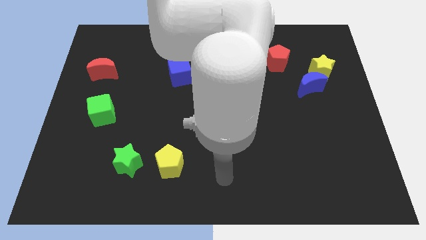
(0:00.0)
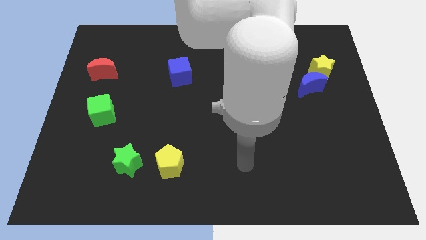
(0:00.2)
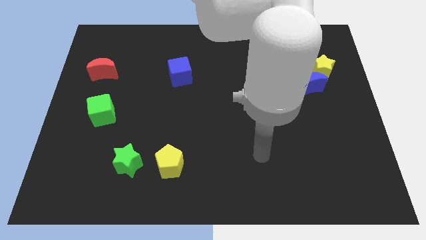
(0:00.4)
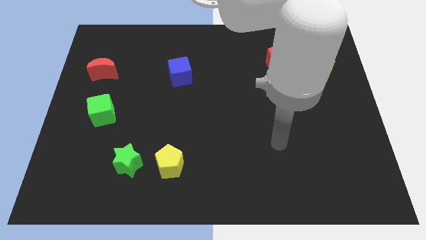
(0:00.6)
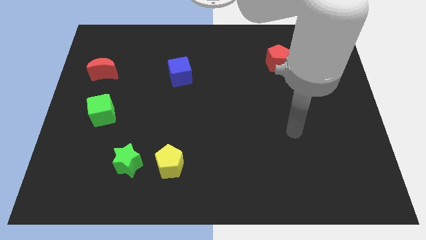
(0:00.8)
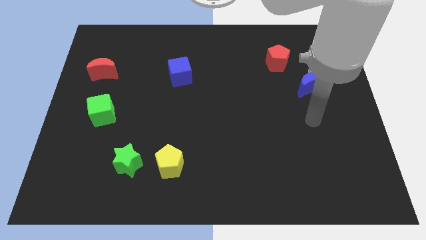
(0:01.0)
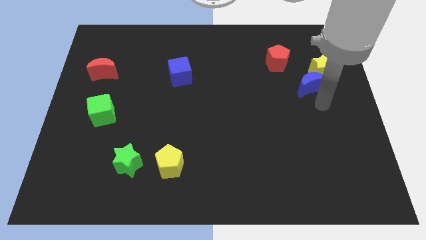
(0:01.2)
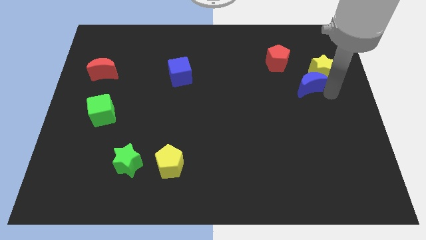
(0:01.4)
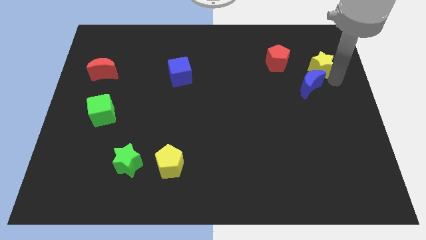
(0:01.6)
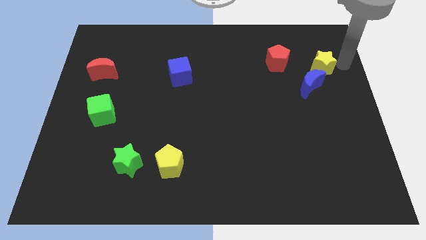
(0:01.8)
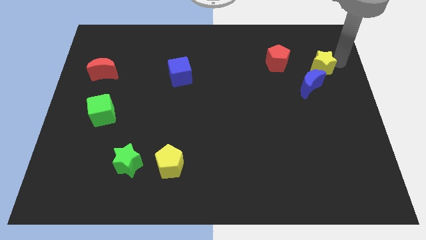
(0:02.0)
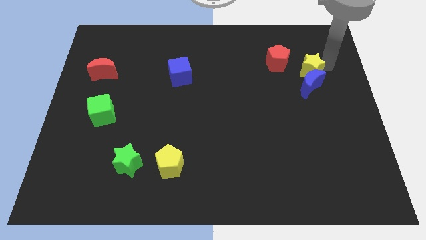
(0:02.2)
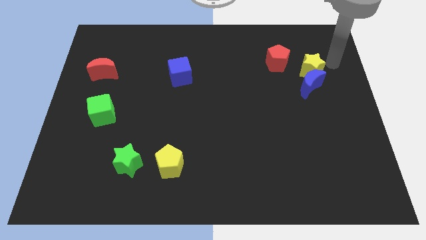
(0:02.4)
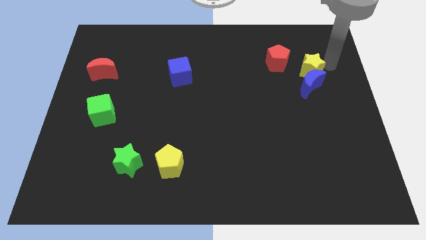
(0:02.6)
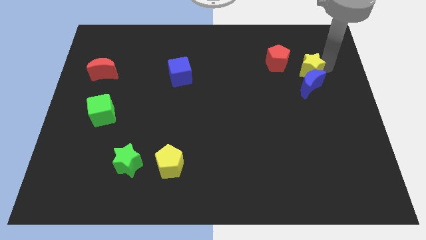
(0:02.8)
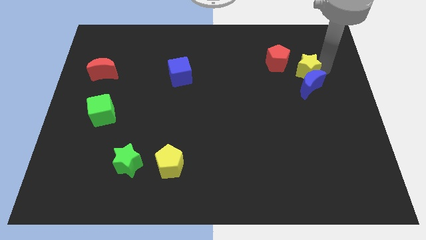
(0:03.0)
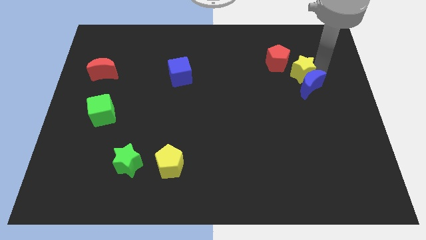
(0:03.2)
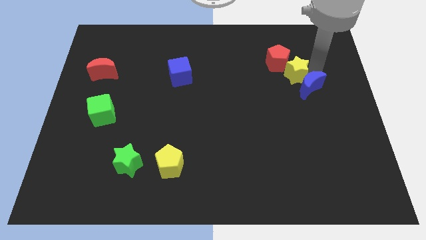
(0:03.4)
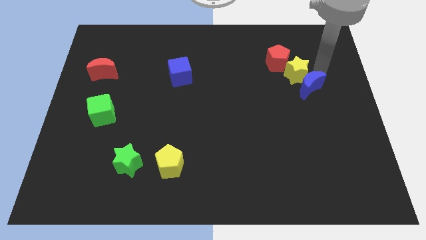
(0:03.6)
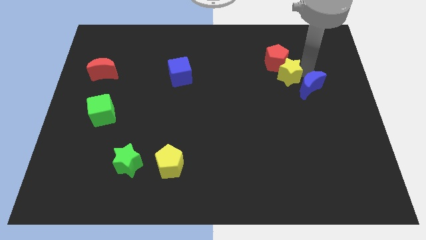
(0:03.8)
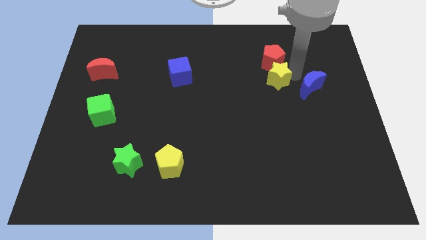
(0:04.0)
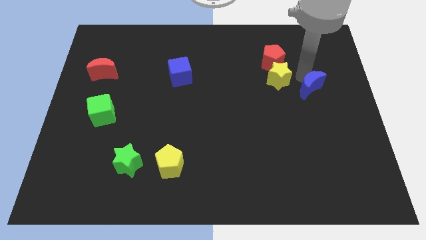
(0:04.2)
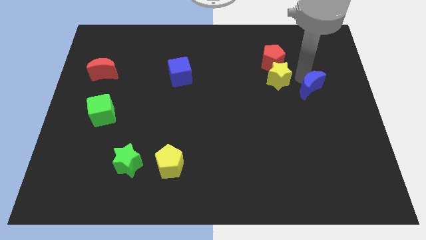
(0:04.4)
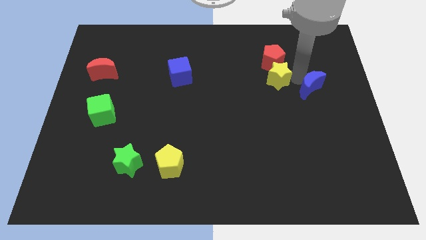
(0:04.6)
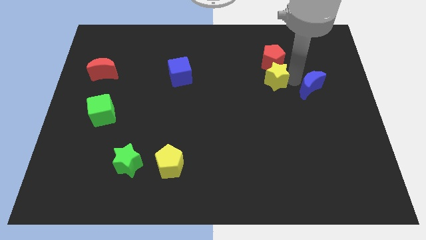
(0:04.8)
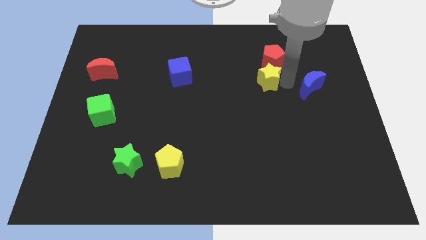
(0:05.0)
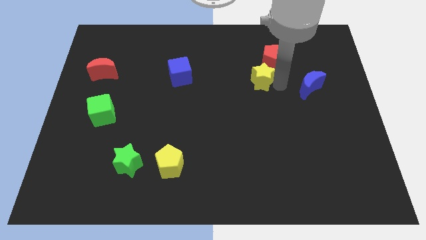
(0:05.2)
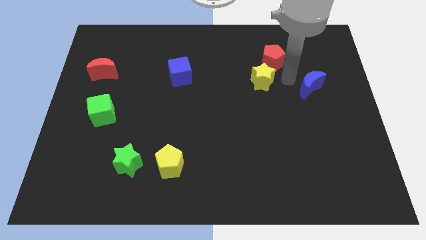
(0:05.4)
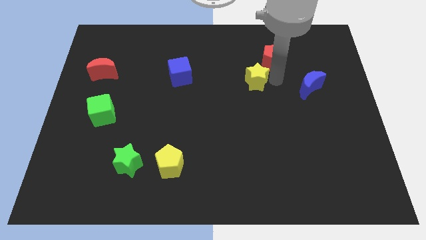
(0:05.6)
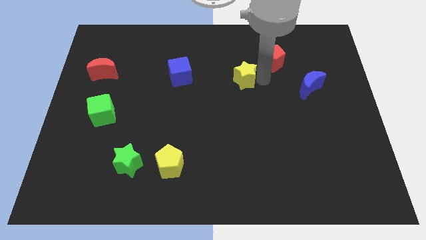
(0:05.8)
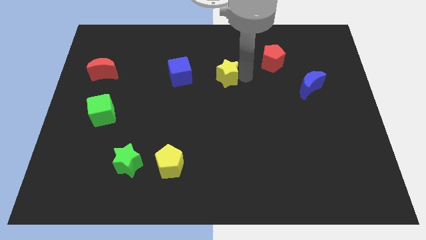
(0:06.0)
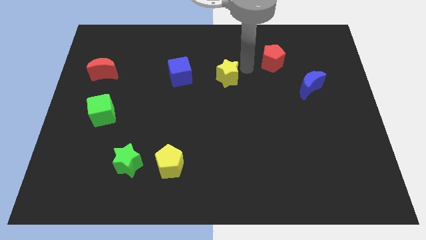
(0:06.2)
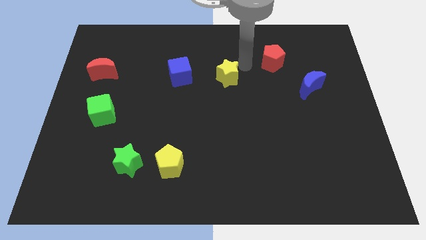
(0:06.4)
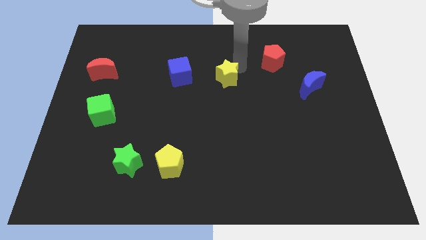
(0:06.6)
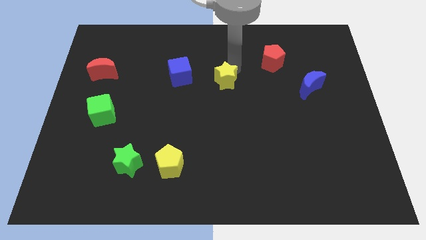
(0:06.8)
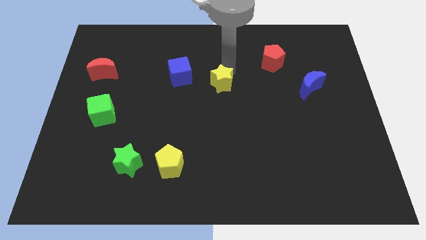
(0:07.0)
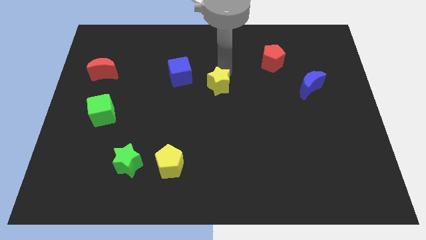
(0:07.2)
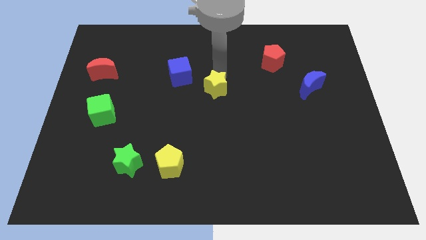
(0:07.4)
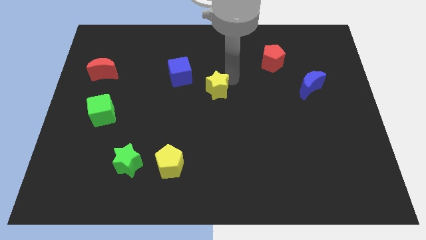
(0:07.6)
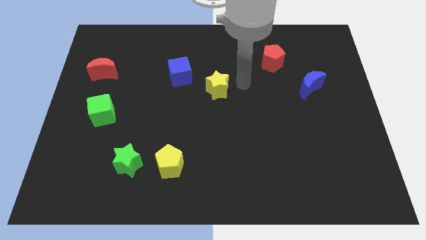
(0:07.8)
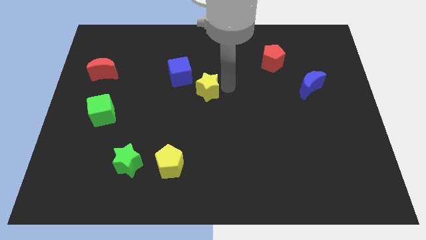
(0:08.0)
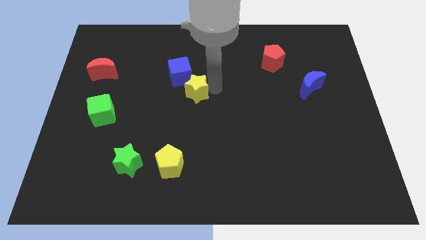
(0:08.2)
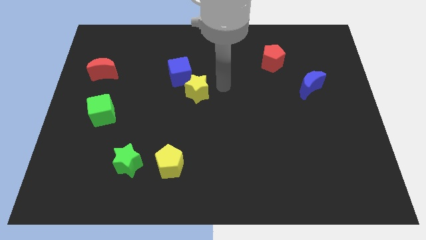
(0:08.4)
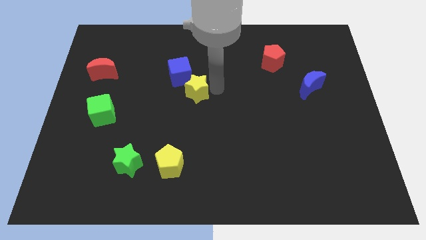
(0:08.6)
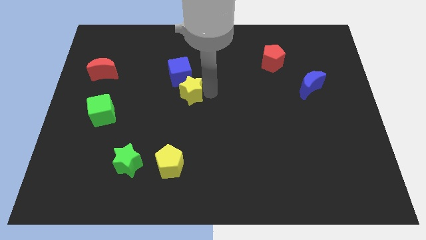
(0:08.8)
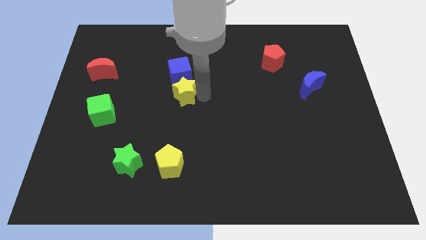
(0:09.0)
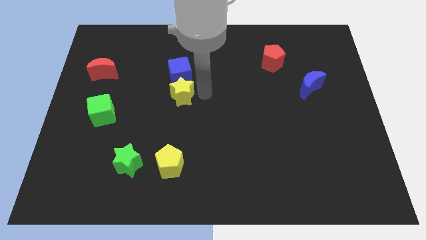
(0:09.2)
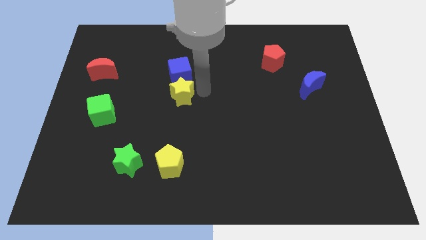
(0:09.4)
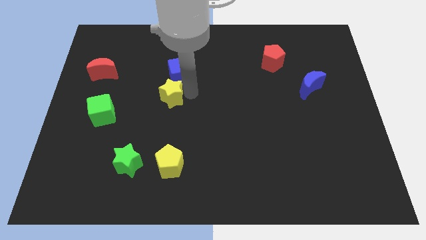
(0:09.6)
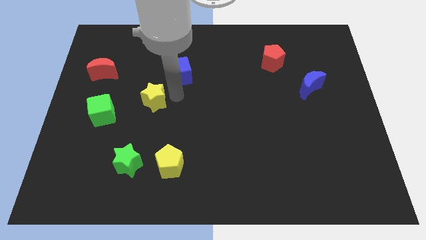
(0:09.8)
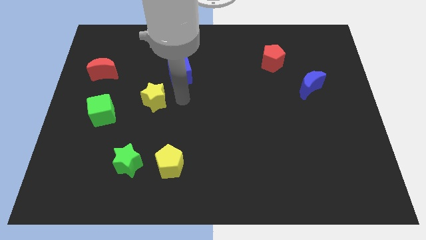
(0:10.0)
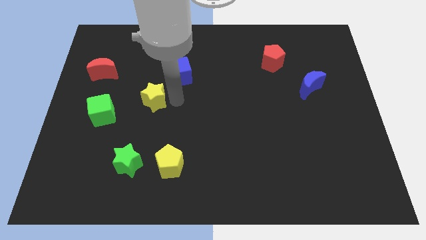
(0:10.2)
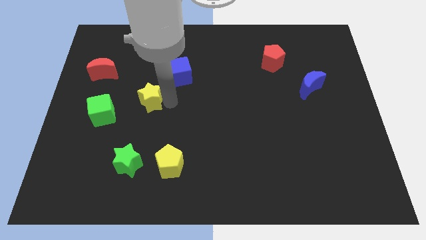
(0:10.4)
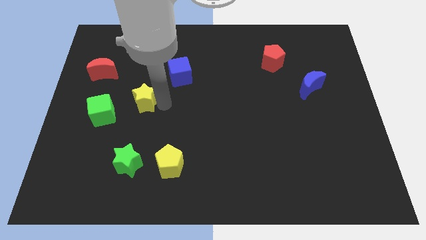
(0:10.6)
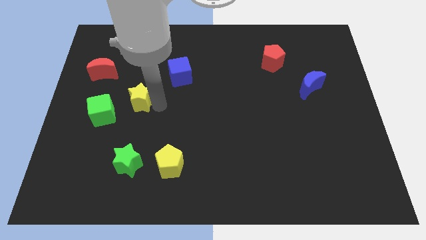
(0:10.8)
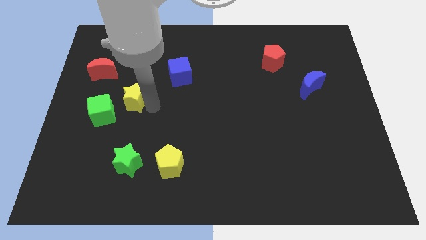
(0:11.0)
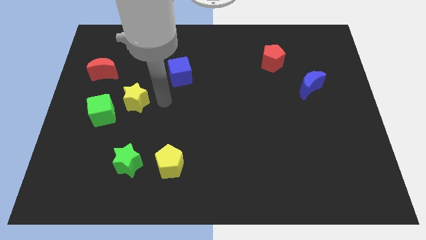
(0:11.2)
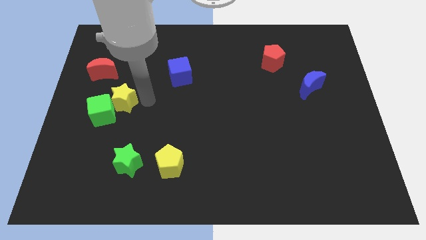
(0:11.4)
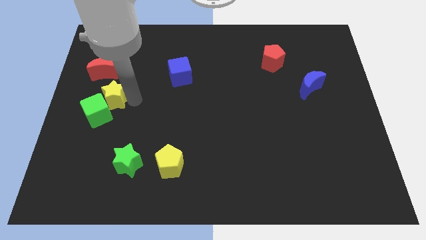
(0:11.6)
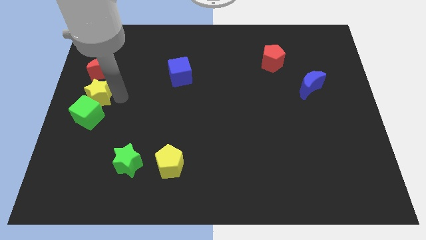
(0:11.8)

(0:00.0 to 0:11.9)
put the yellow star to the center left
